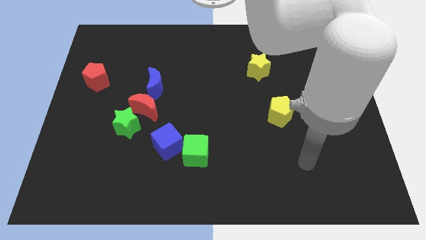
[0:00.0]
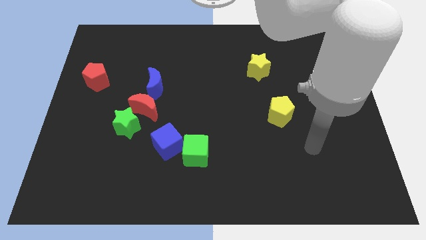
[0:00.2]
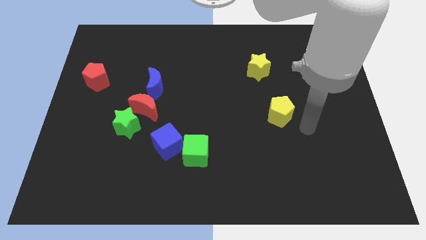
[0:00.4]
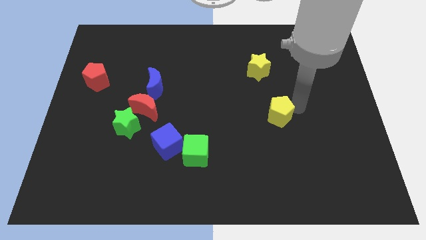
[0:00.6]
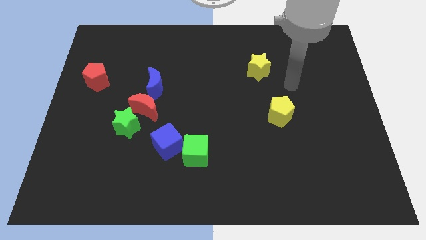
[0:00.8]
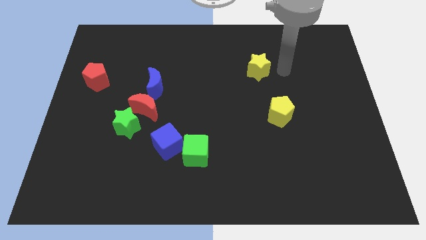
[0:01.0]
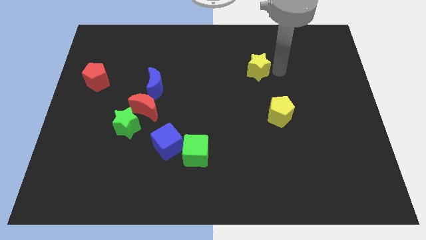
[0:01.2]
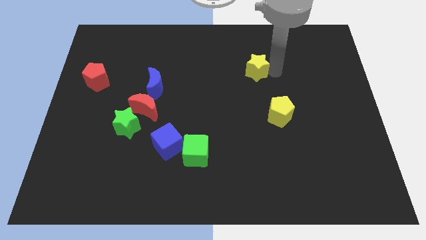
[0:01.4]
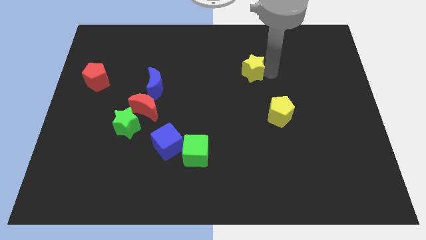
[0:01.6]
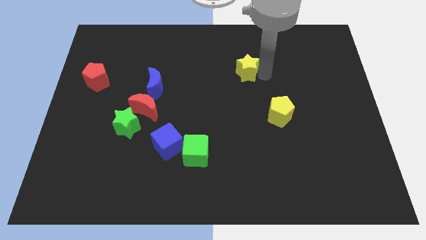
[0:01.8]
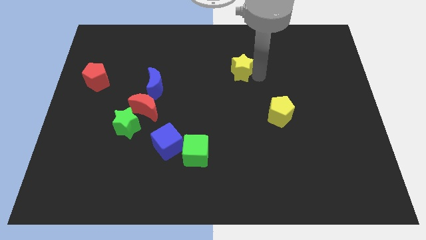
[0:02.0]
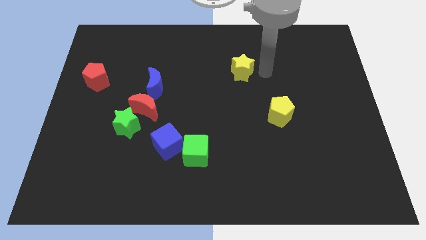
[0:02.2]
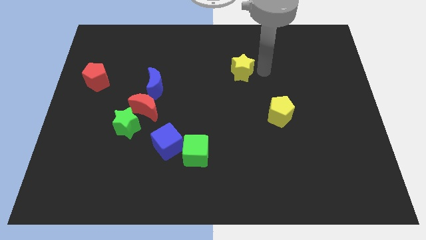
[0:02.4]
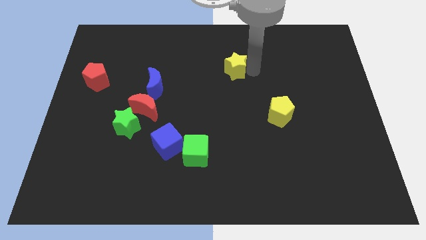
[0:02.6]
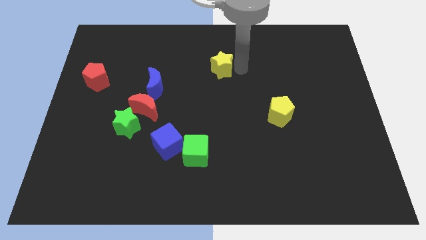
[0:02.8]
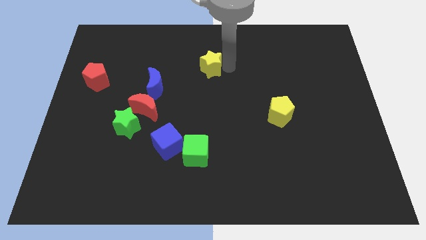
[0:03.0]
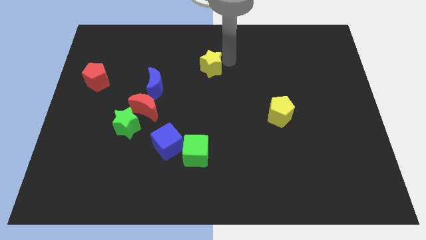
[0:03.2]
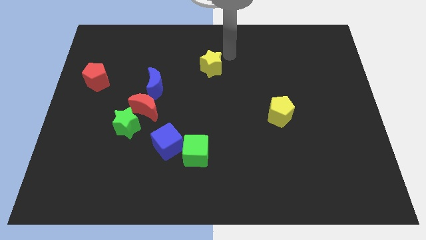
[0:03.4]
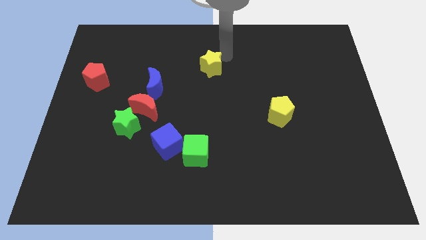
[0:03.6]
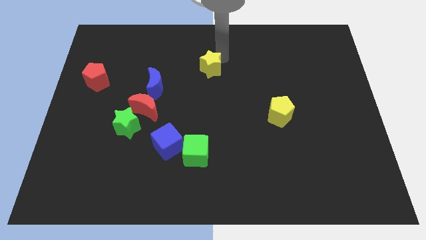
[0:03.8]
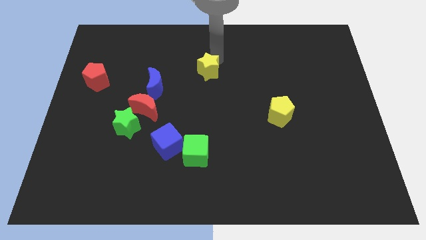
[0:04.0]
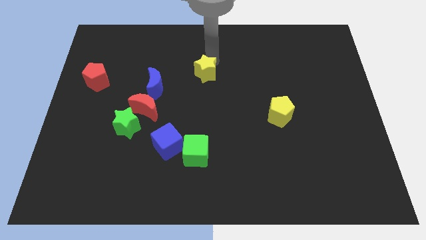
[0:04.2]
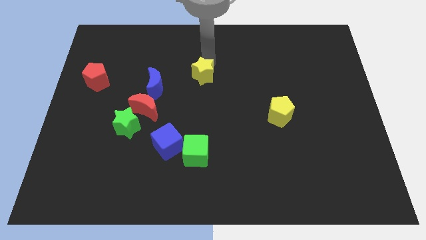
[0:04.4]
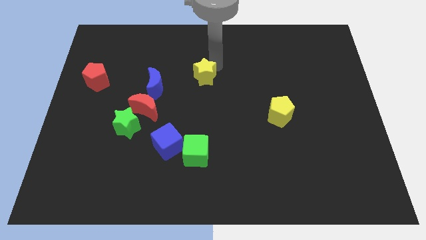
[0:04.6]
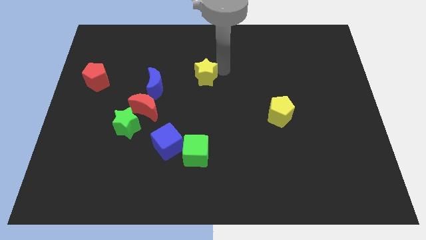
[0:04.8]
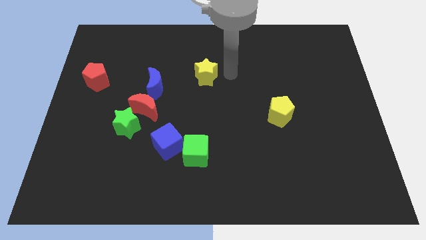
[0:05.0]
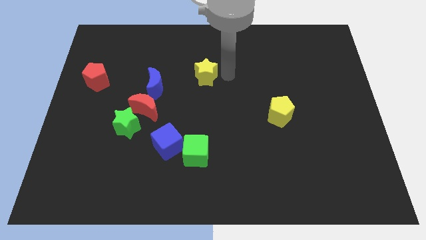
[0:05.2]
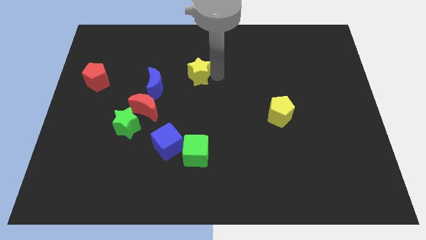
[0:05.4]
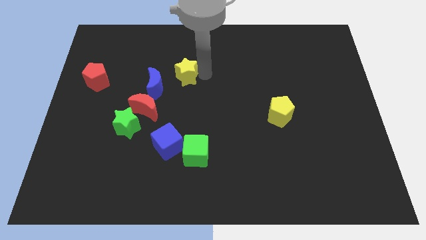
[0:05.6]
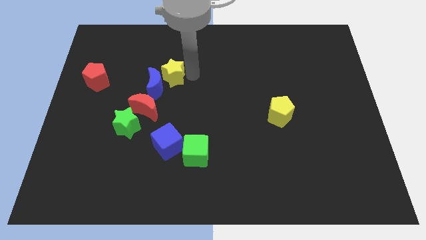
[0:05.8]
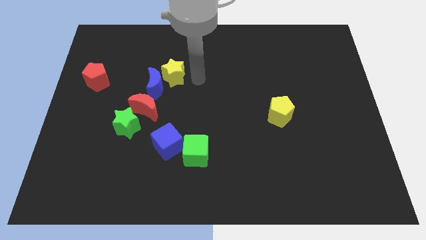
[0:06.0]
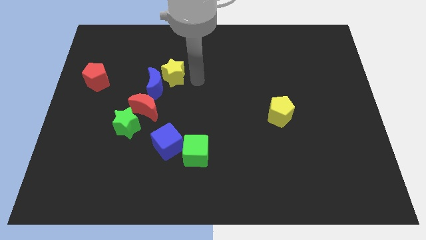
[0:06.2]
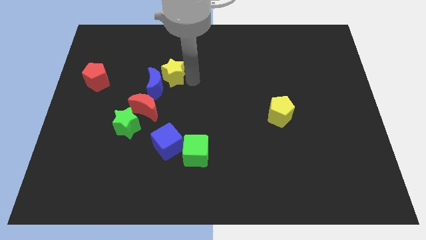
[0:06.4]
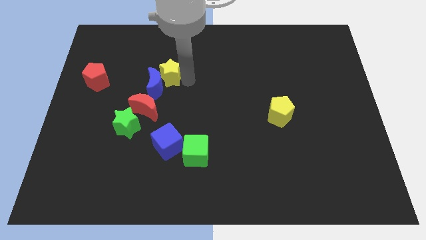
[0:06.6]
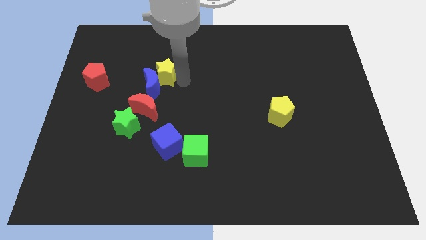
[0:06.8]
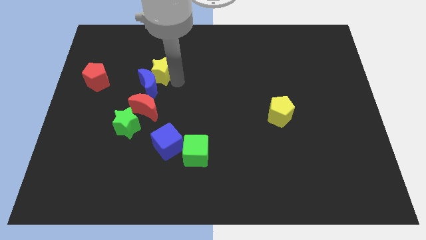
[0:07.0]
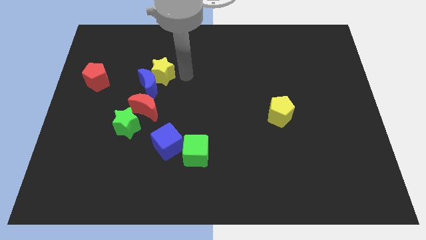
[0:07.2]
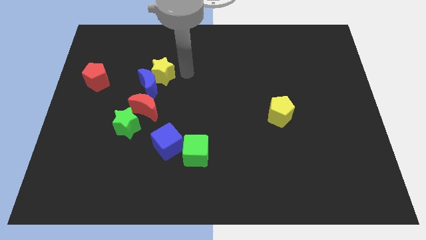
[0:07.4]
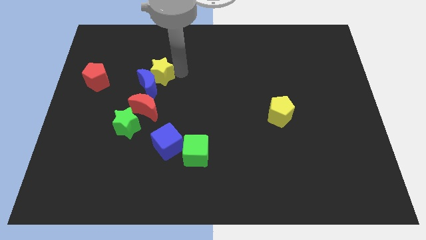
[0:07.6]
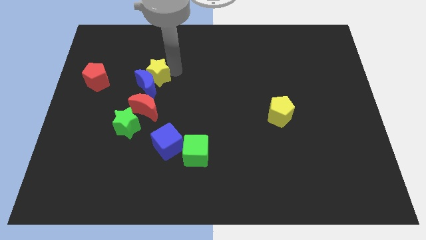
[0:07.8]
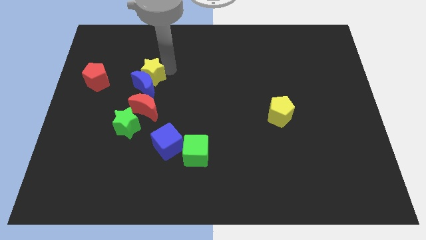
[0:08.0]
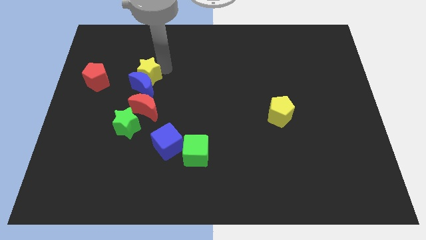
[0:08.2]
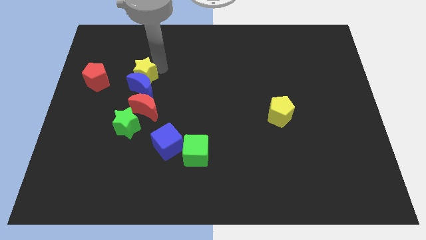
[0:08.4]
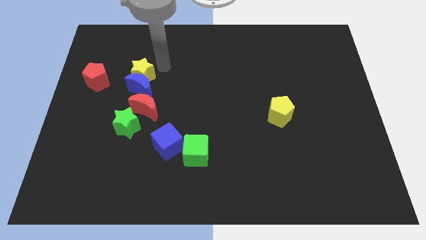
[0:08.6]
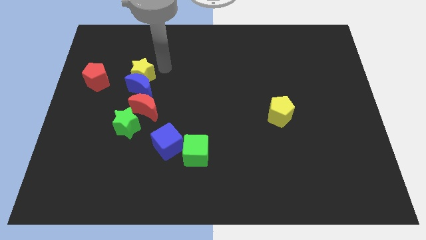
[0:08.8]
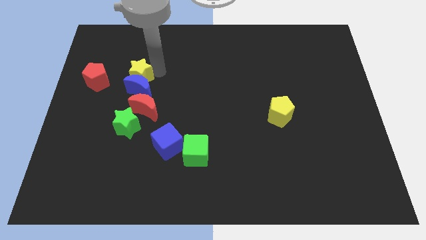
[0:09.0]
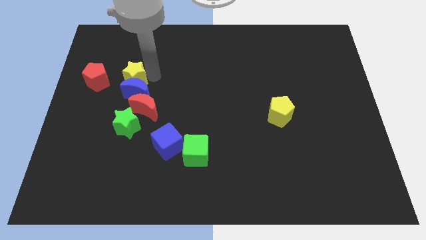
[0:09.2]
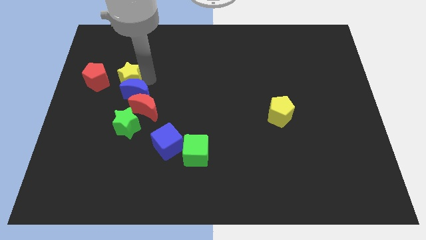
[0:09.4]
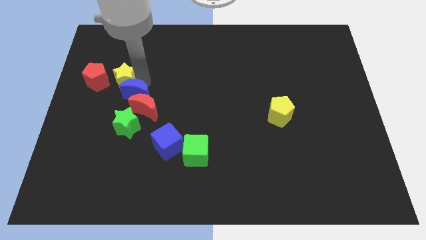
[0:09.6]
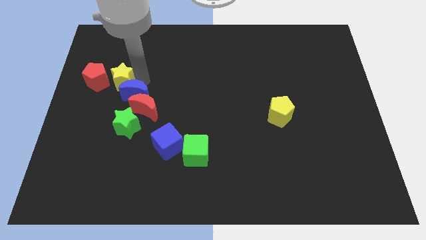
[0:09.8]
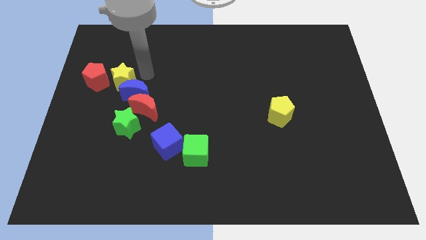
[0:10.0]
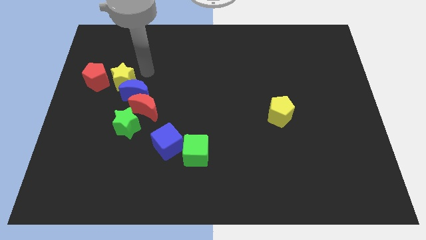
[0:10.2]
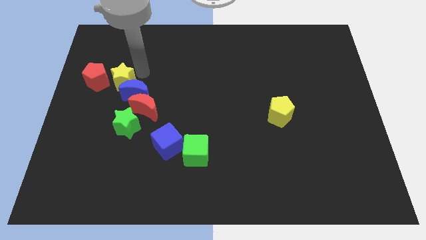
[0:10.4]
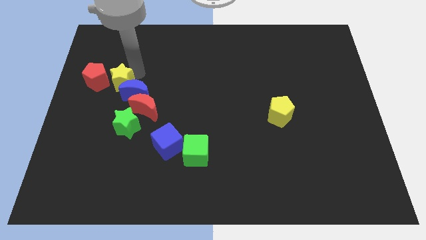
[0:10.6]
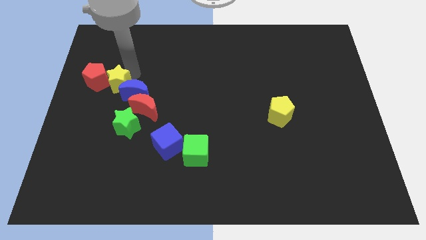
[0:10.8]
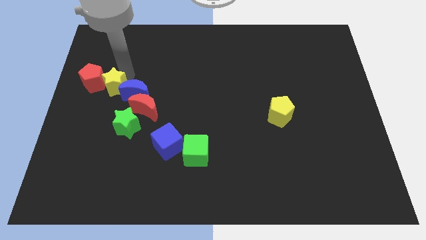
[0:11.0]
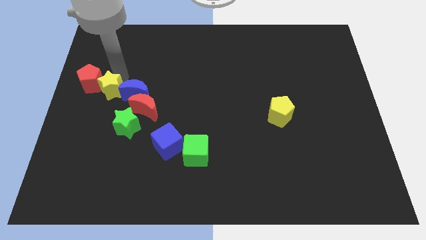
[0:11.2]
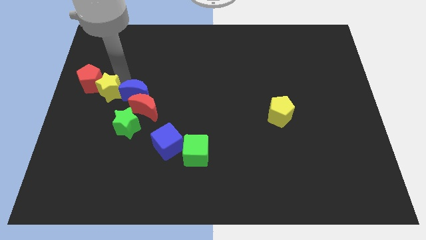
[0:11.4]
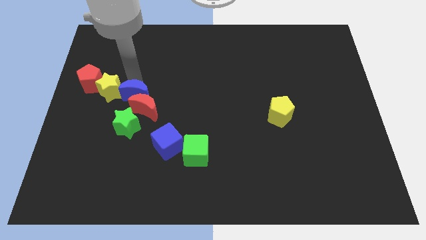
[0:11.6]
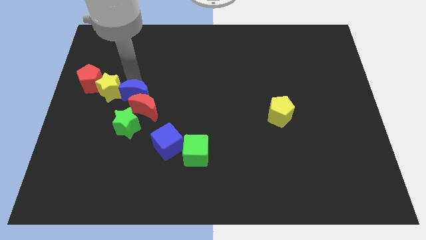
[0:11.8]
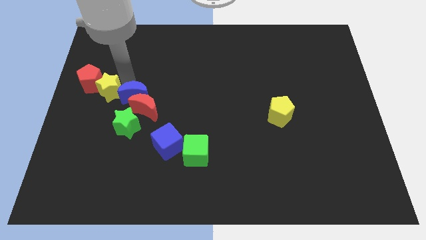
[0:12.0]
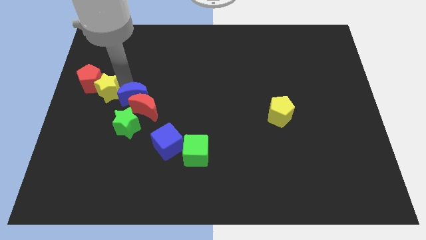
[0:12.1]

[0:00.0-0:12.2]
move the yellow star to the center left
